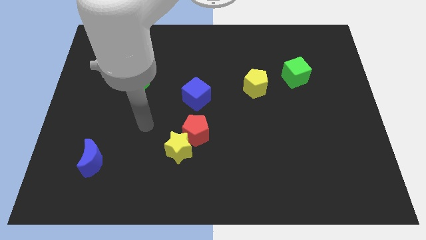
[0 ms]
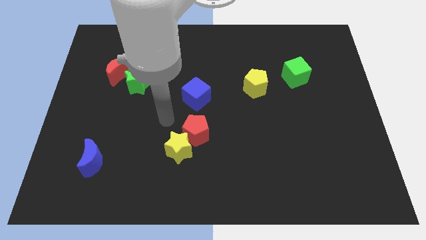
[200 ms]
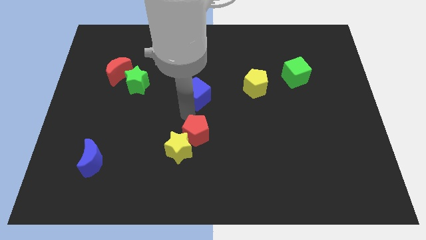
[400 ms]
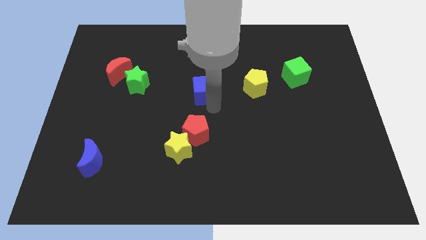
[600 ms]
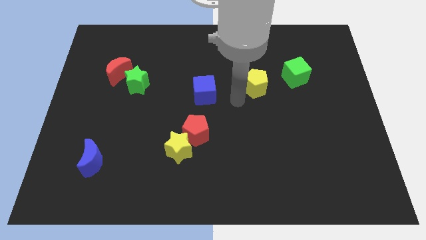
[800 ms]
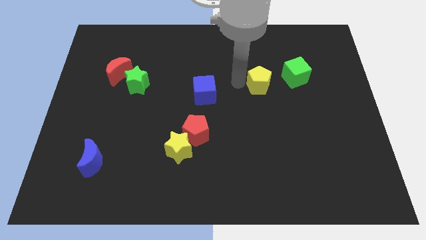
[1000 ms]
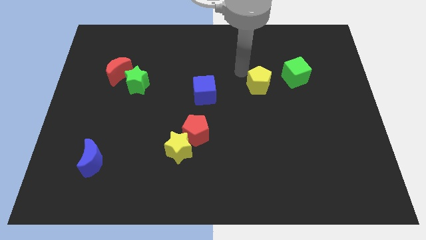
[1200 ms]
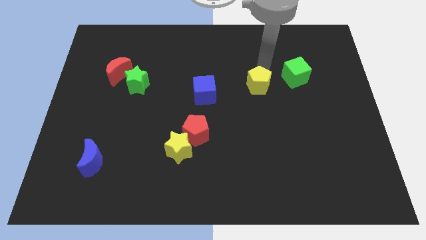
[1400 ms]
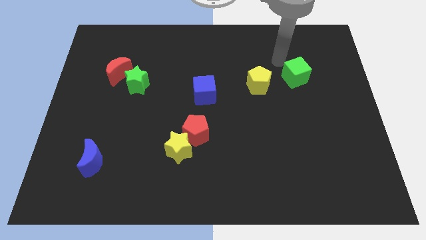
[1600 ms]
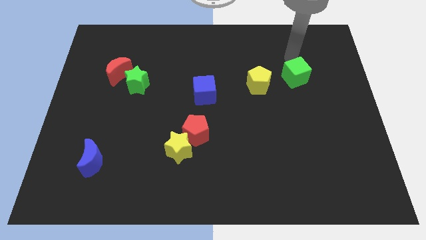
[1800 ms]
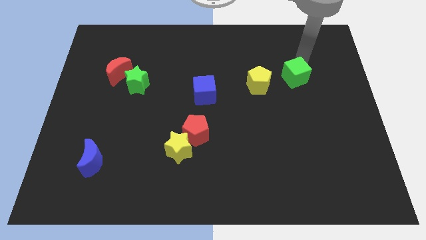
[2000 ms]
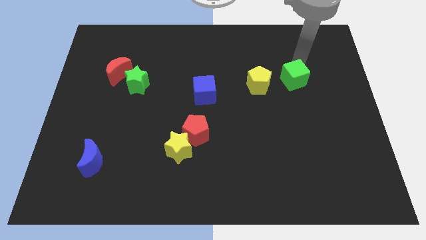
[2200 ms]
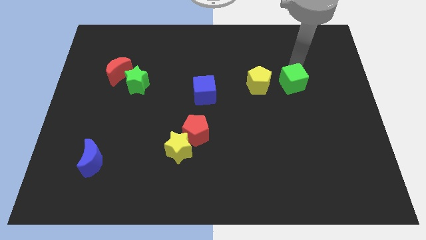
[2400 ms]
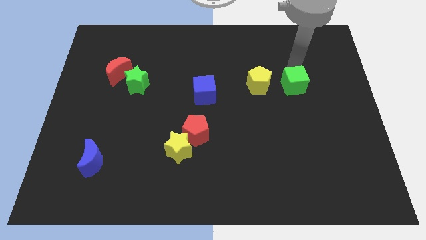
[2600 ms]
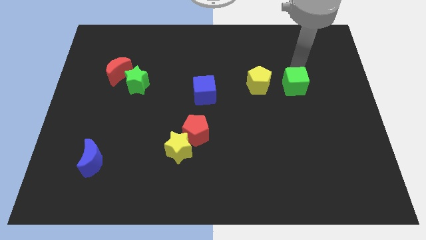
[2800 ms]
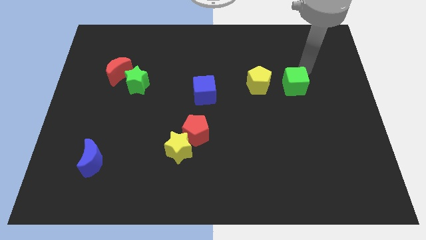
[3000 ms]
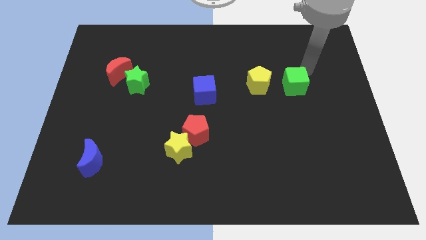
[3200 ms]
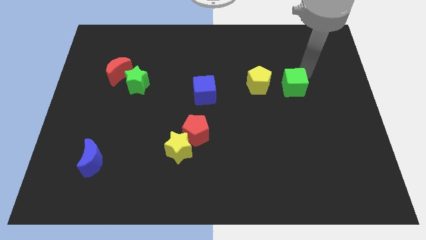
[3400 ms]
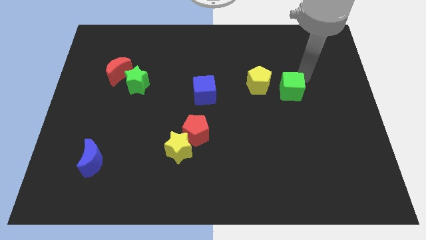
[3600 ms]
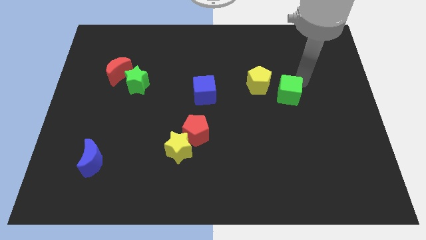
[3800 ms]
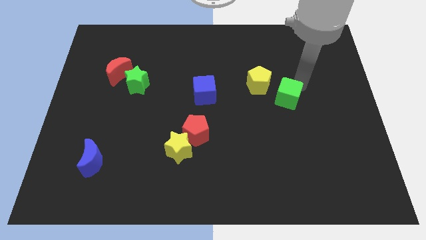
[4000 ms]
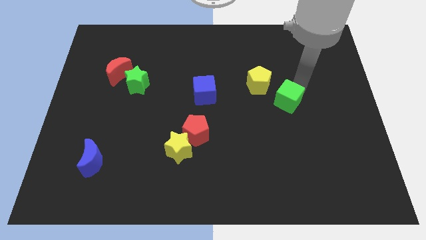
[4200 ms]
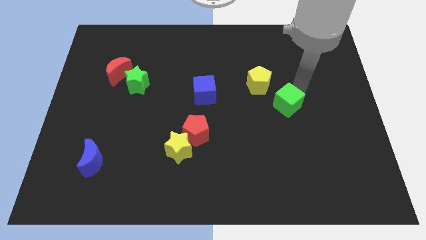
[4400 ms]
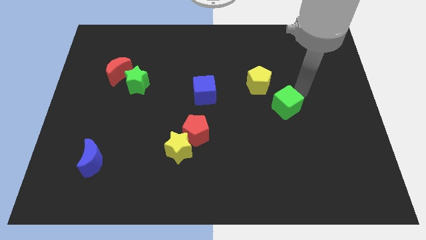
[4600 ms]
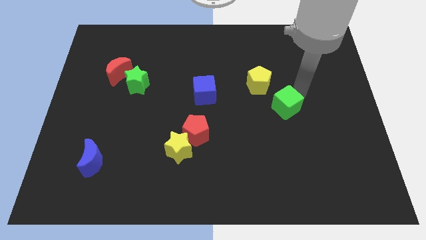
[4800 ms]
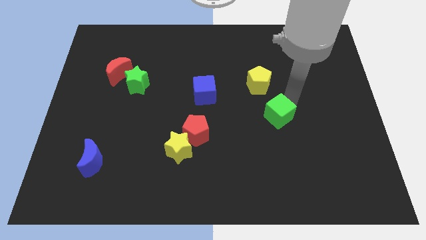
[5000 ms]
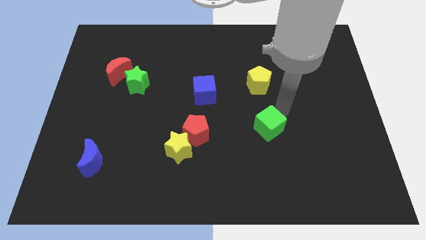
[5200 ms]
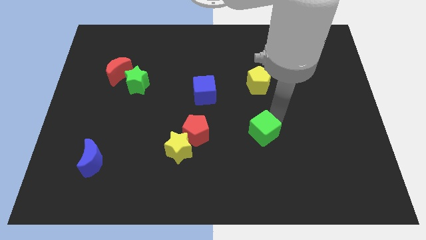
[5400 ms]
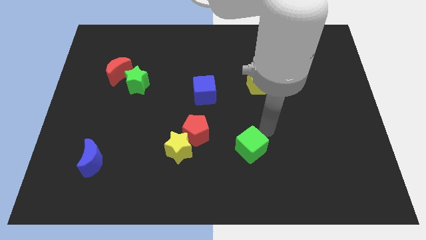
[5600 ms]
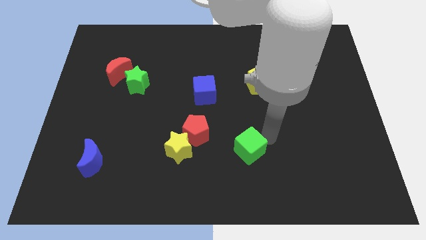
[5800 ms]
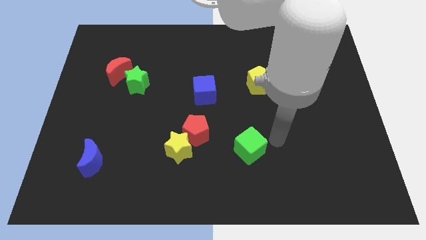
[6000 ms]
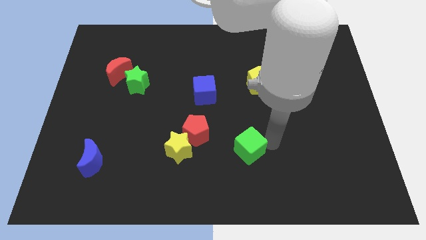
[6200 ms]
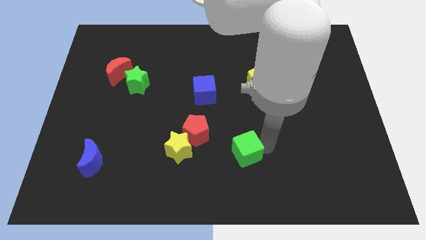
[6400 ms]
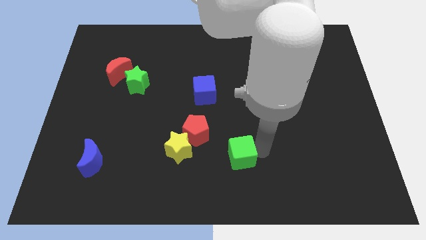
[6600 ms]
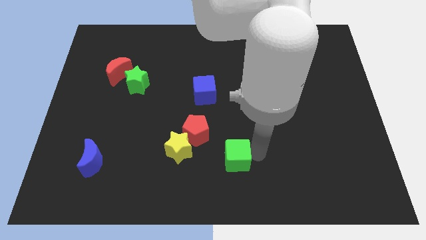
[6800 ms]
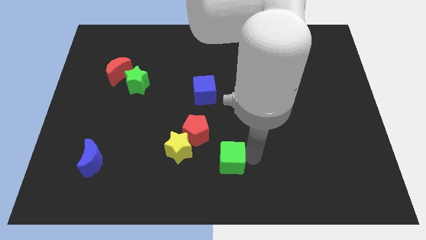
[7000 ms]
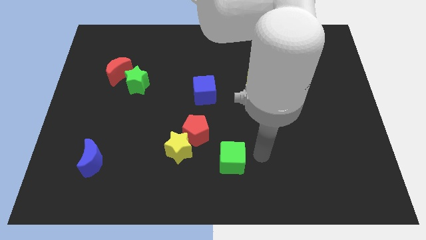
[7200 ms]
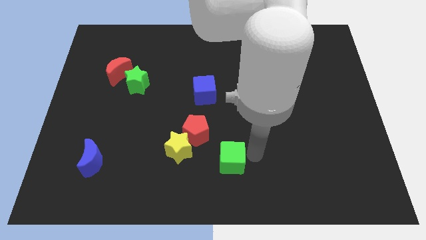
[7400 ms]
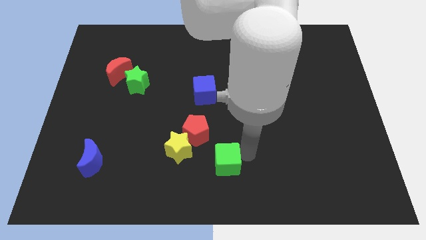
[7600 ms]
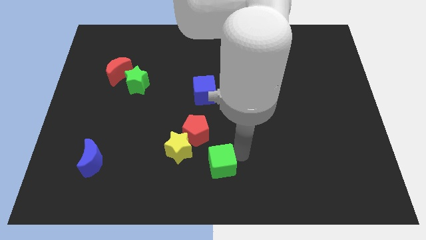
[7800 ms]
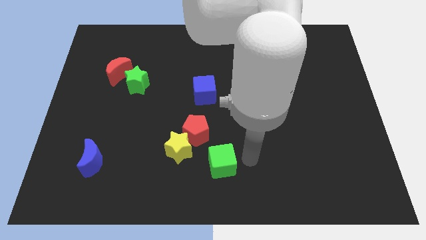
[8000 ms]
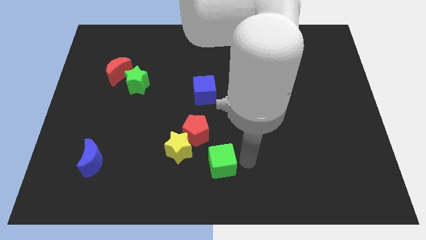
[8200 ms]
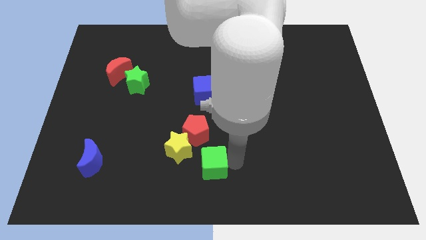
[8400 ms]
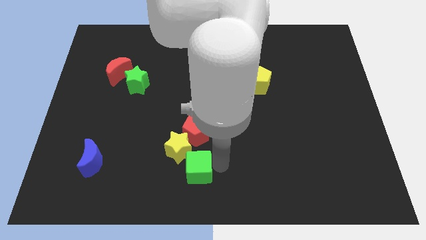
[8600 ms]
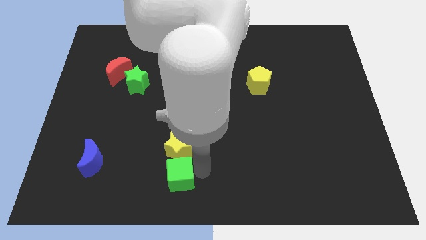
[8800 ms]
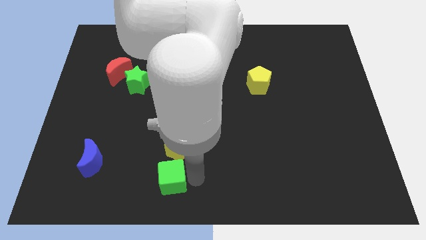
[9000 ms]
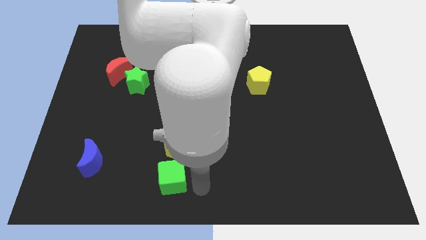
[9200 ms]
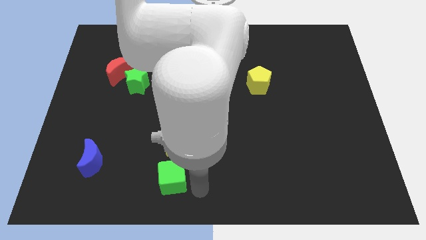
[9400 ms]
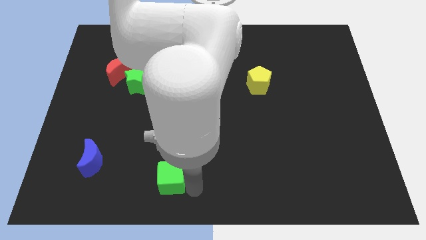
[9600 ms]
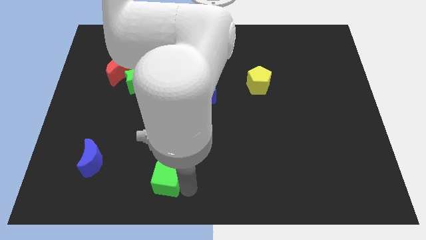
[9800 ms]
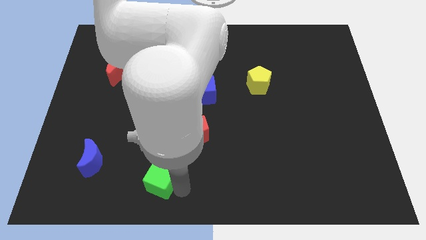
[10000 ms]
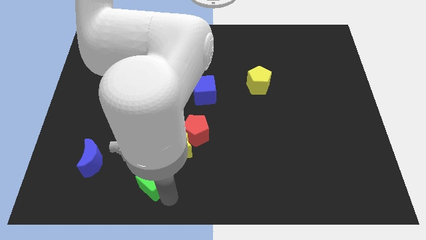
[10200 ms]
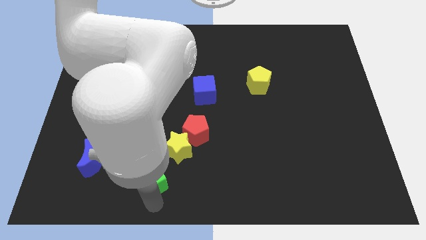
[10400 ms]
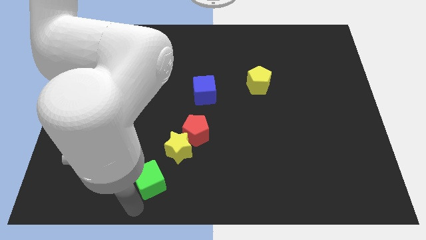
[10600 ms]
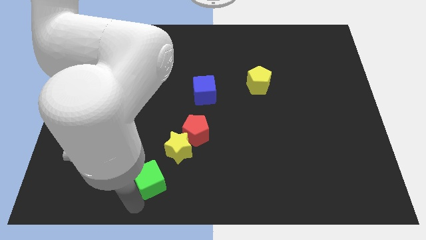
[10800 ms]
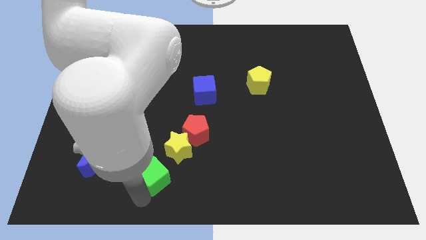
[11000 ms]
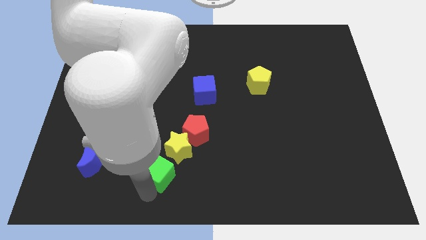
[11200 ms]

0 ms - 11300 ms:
put the green cube to the bottom left side of the red pentagon

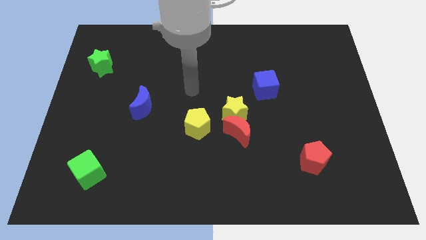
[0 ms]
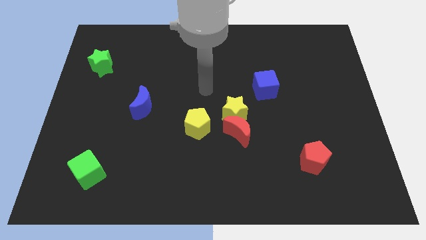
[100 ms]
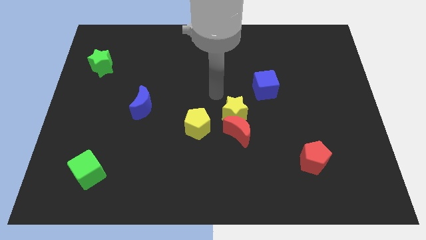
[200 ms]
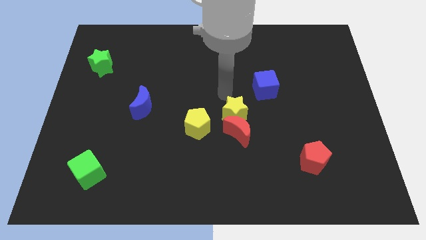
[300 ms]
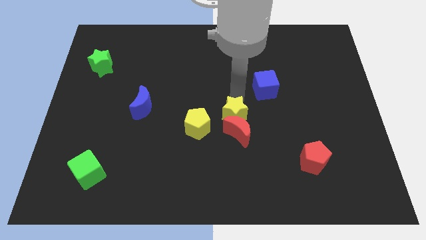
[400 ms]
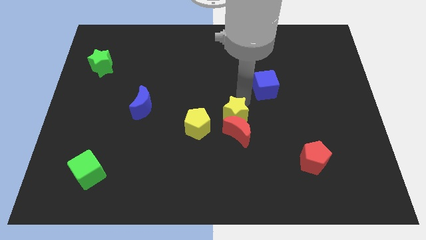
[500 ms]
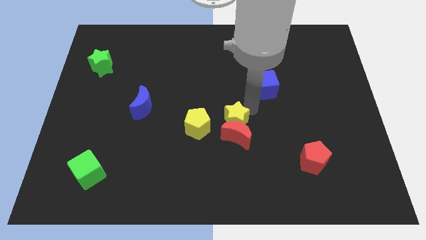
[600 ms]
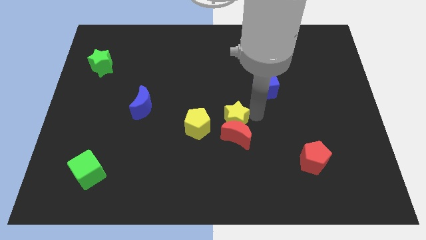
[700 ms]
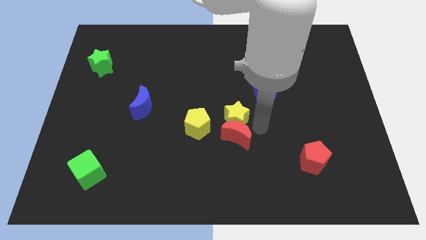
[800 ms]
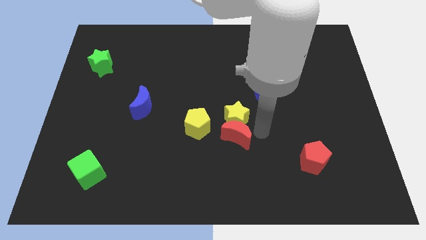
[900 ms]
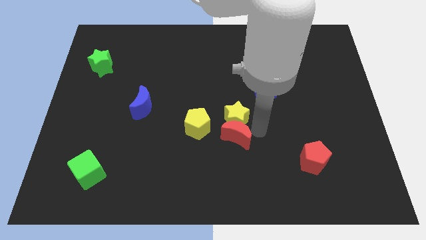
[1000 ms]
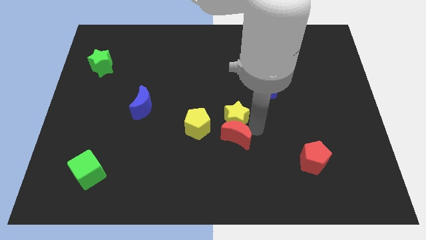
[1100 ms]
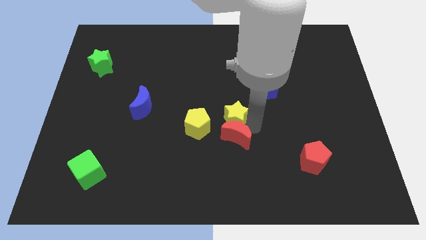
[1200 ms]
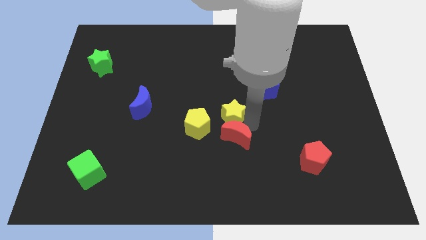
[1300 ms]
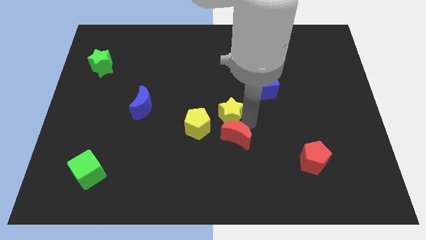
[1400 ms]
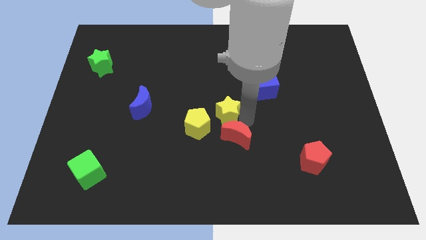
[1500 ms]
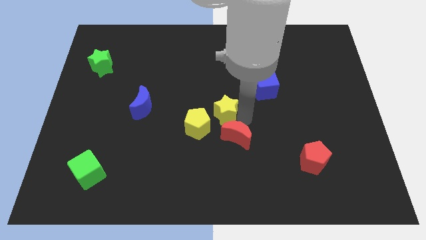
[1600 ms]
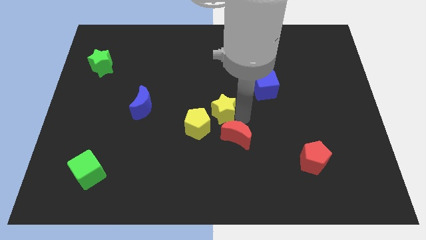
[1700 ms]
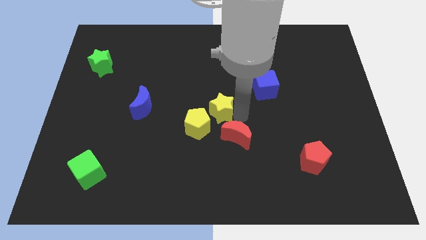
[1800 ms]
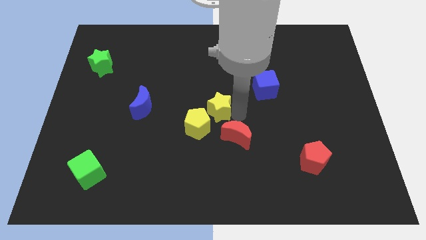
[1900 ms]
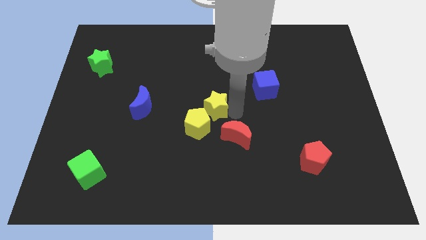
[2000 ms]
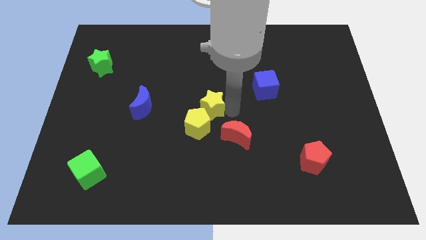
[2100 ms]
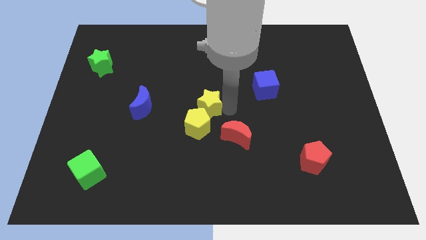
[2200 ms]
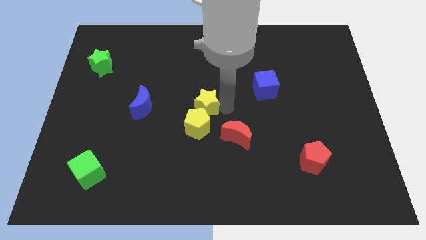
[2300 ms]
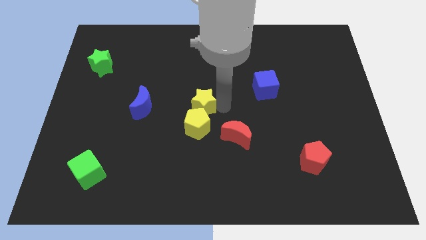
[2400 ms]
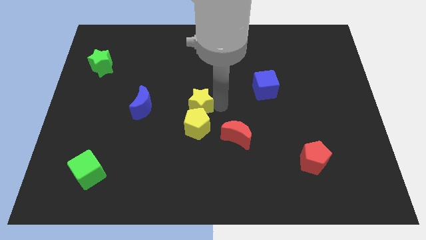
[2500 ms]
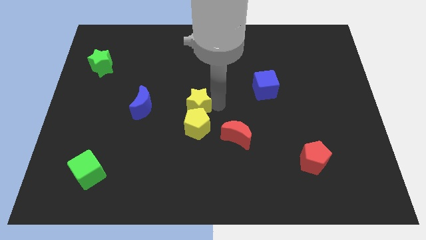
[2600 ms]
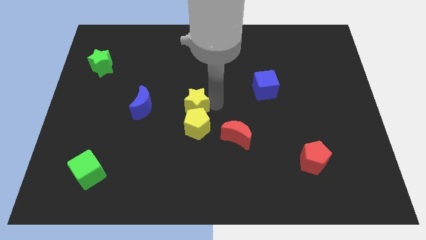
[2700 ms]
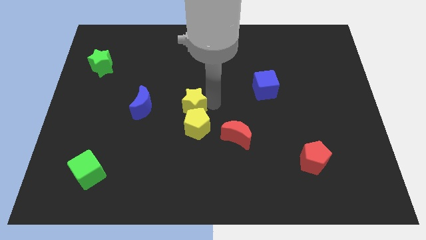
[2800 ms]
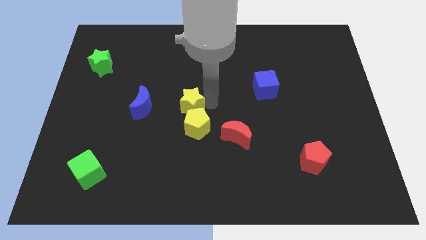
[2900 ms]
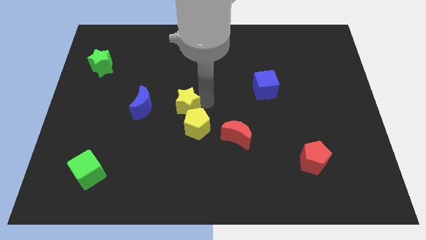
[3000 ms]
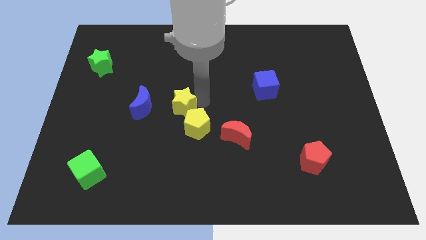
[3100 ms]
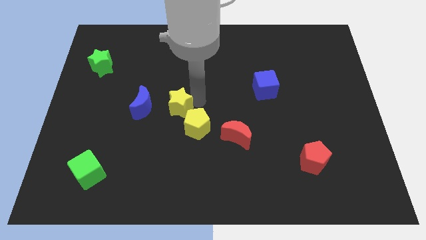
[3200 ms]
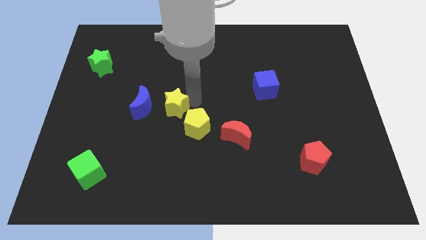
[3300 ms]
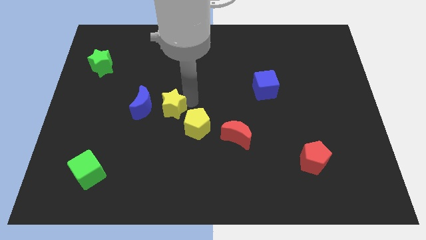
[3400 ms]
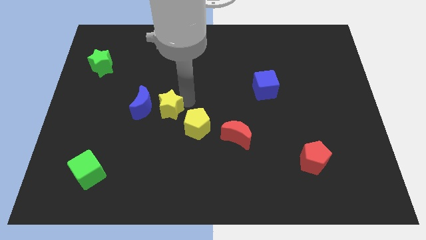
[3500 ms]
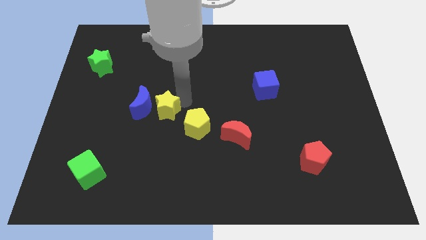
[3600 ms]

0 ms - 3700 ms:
push the yellow star just left of the yellow pentagon
